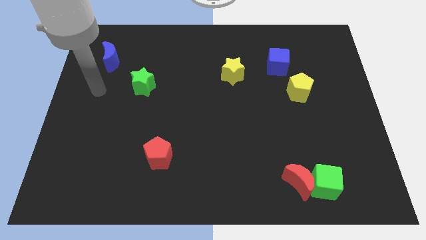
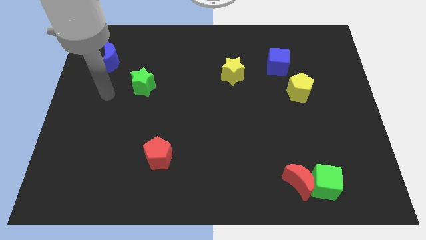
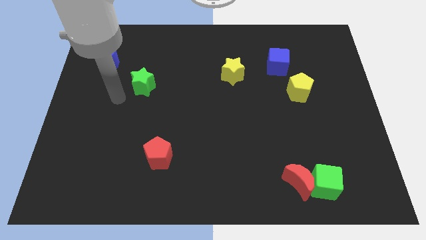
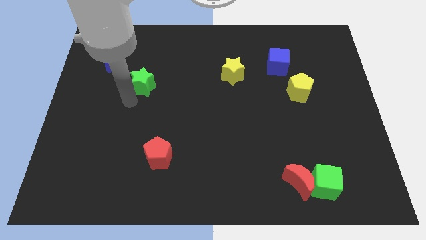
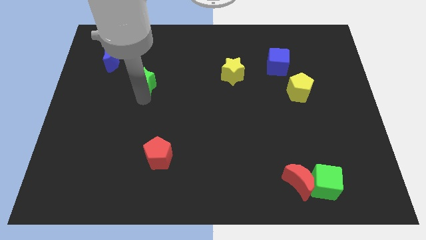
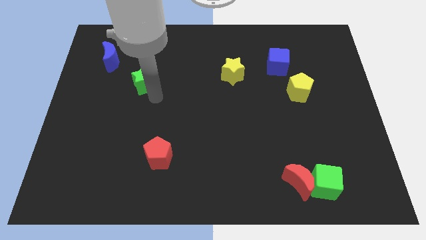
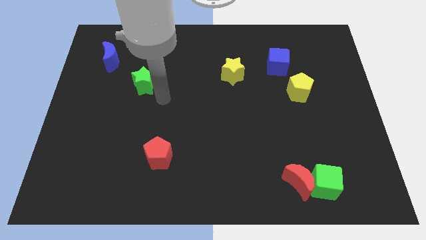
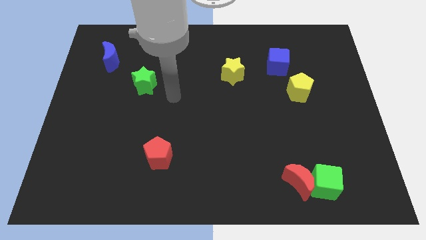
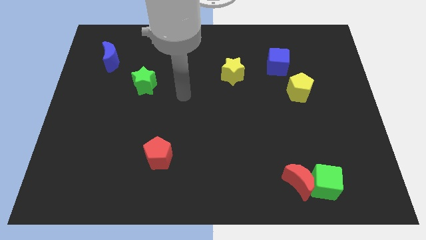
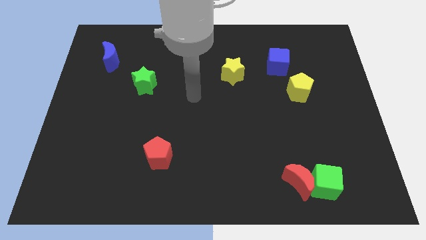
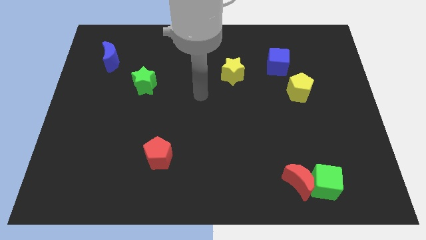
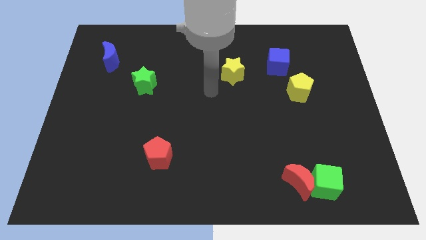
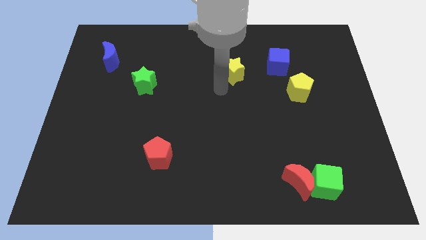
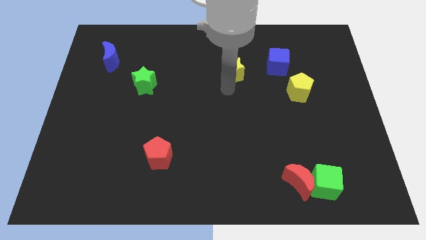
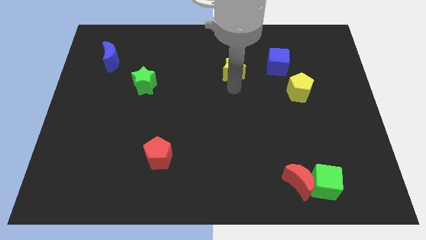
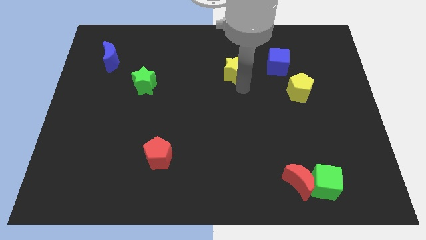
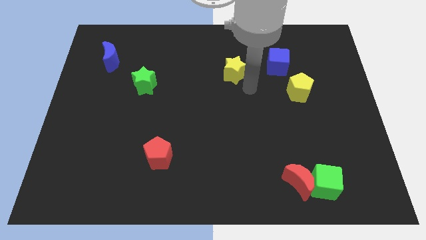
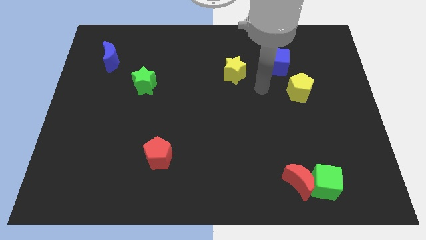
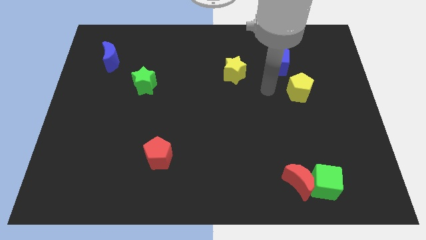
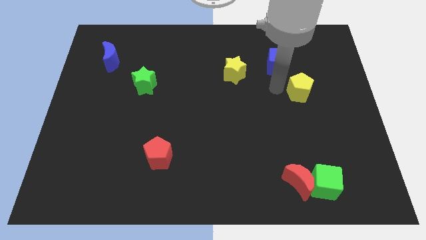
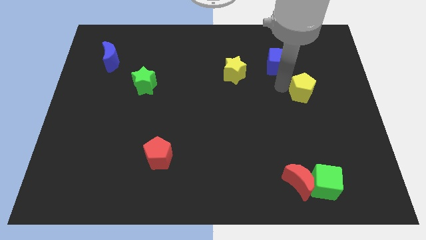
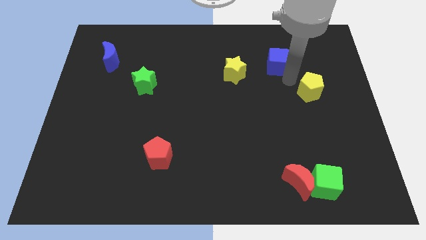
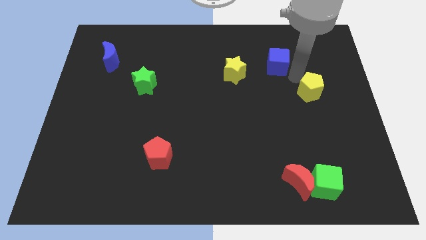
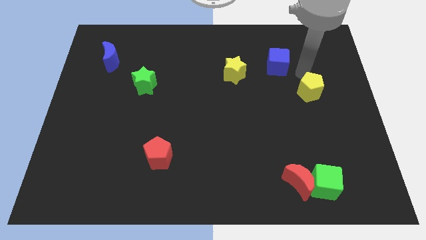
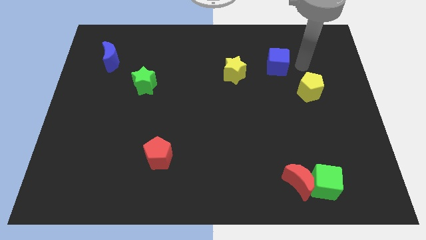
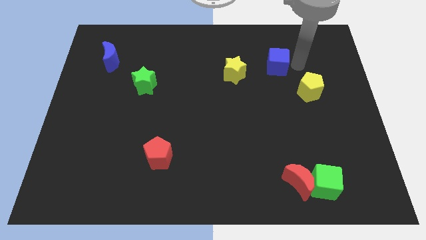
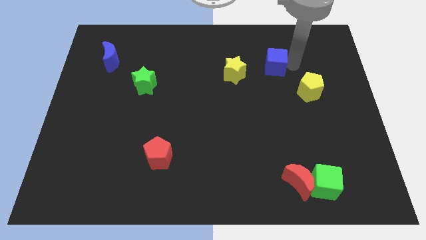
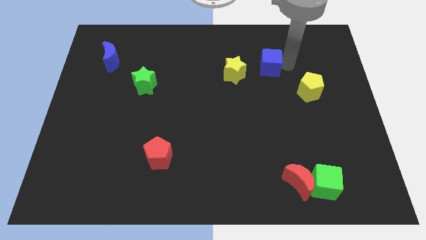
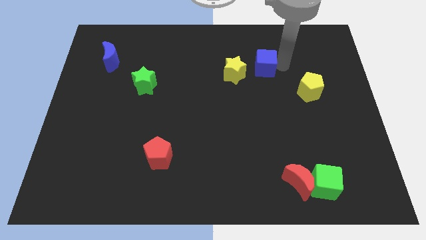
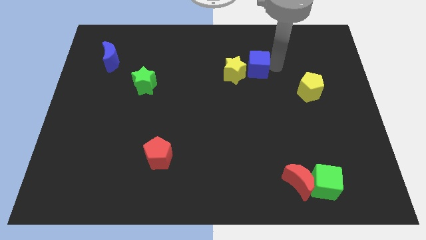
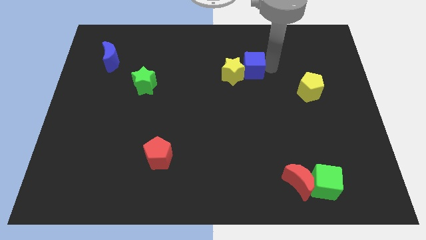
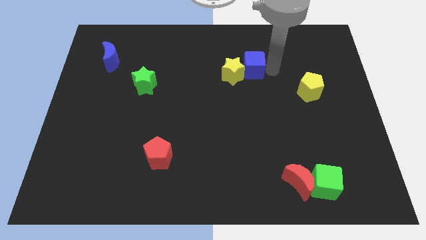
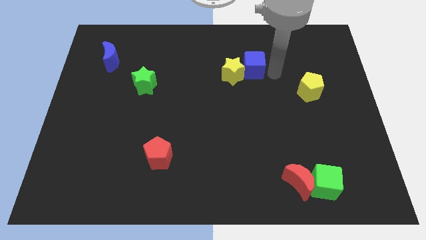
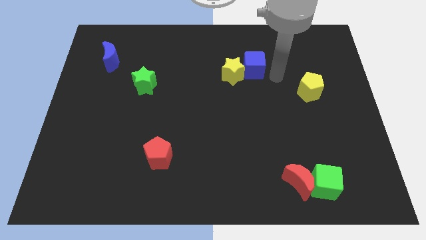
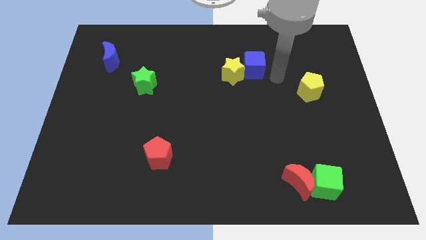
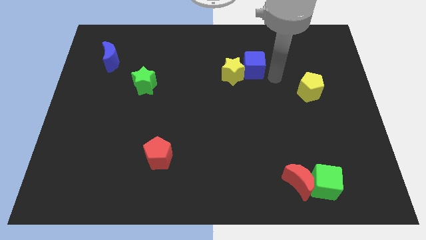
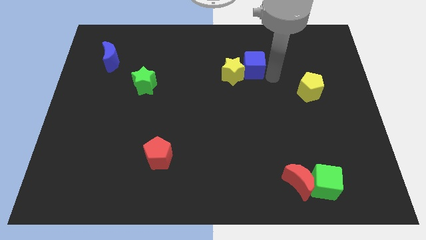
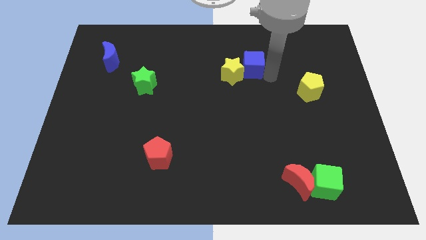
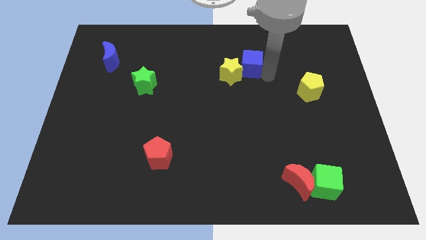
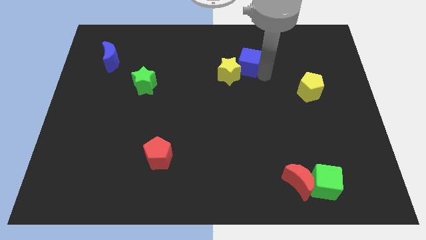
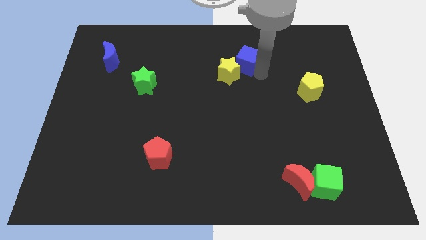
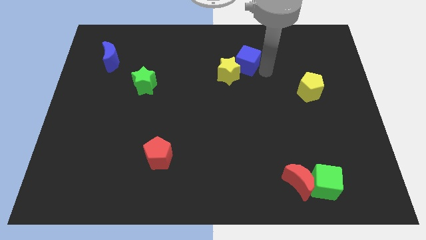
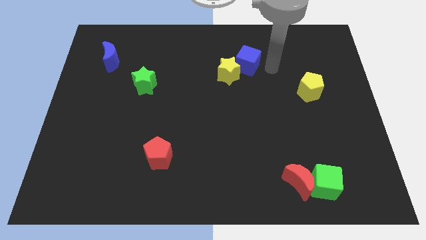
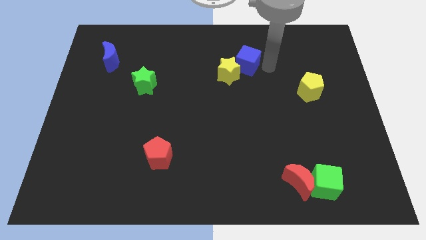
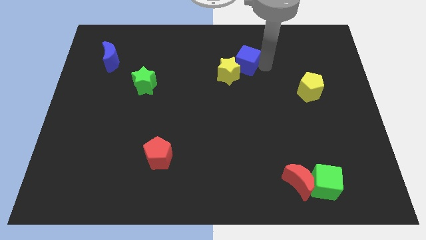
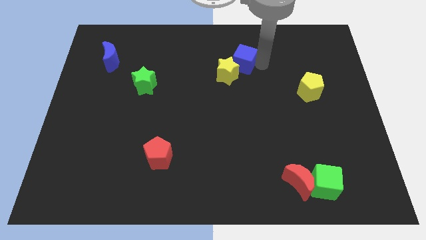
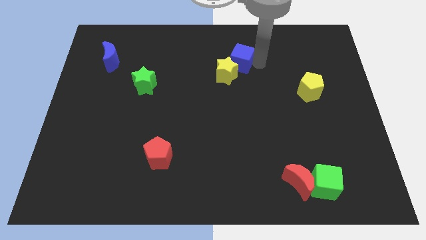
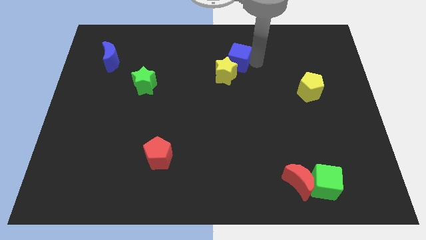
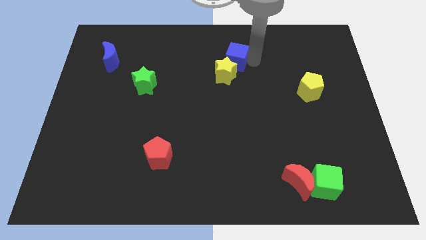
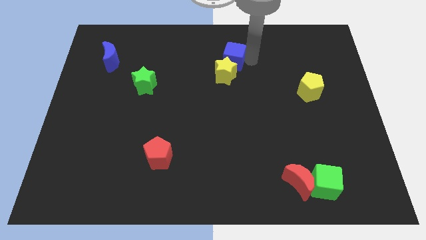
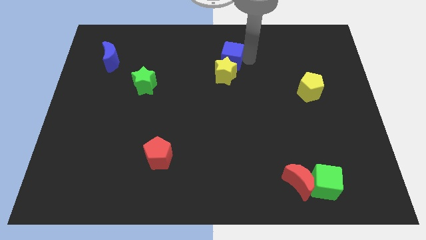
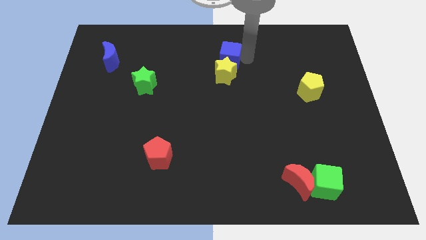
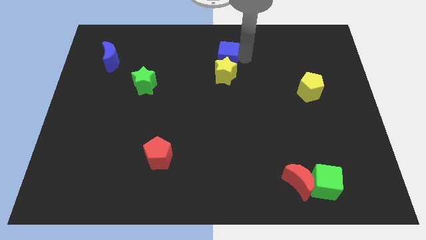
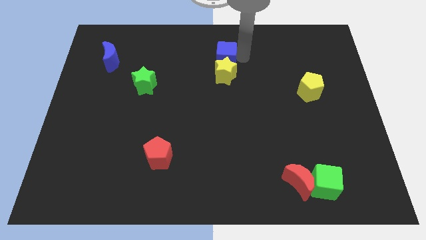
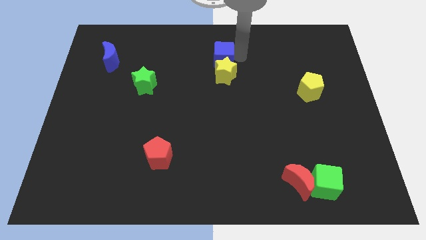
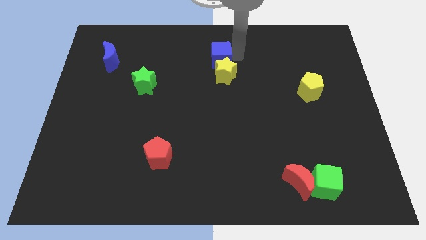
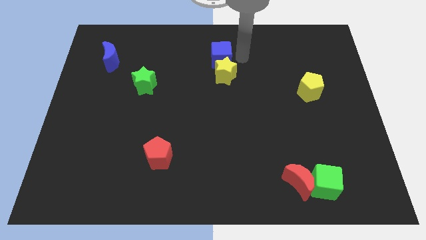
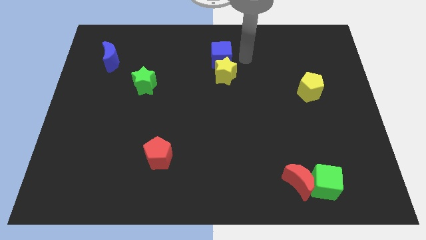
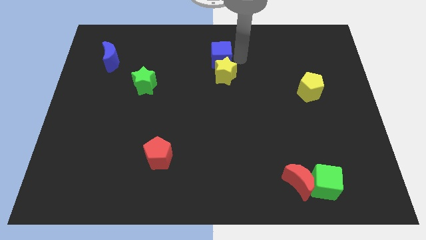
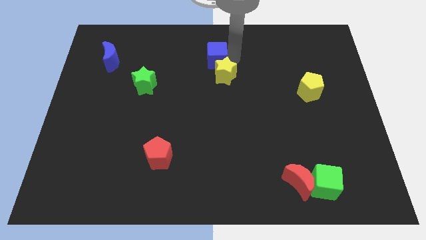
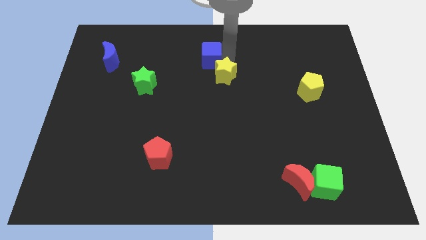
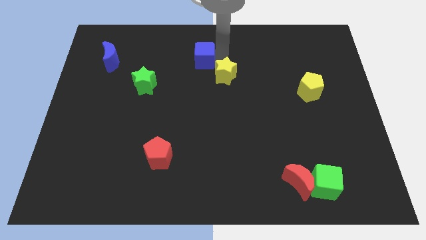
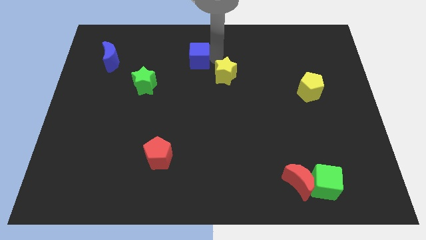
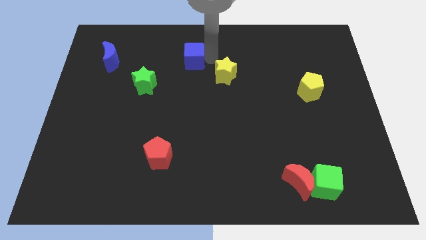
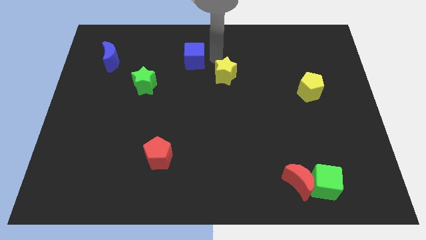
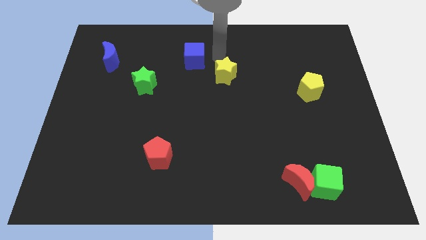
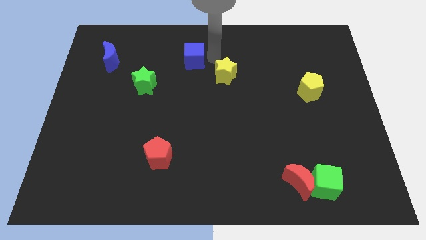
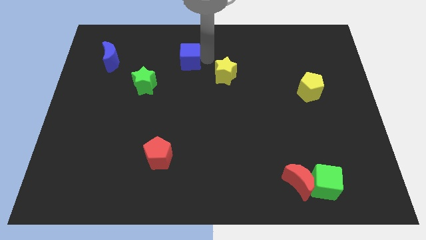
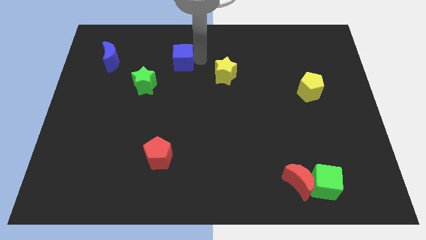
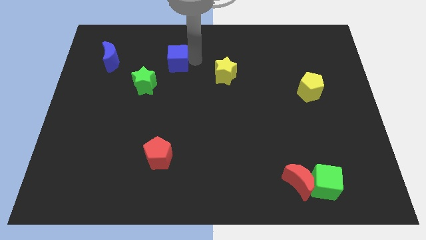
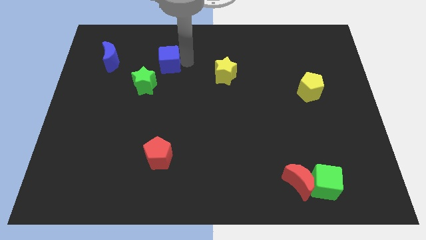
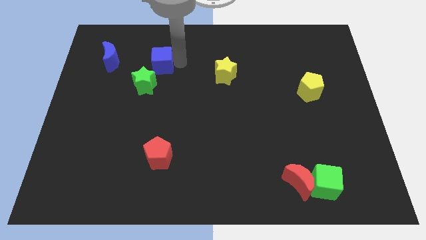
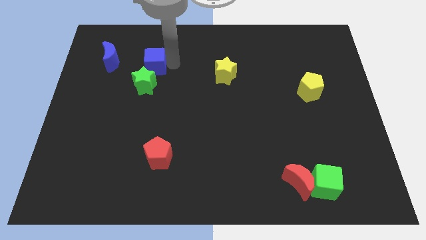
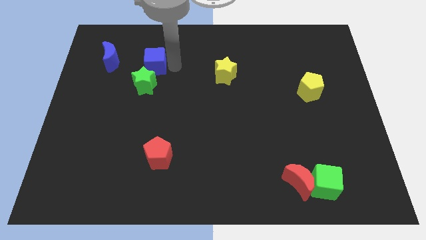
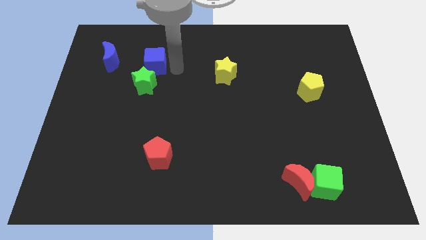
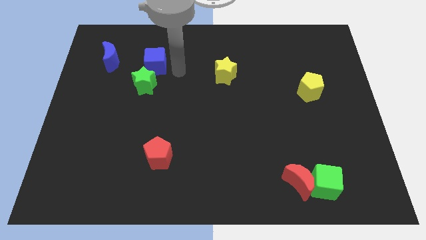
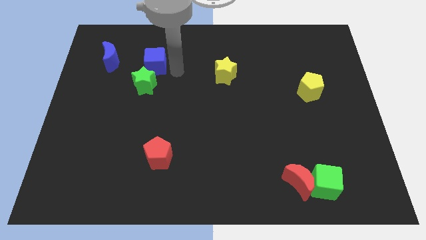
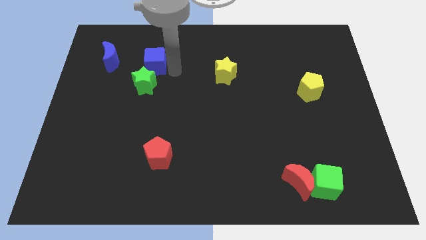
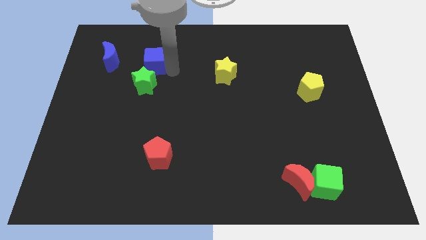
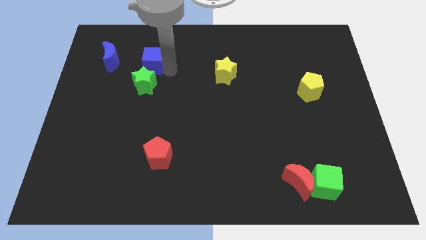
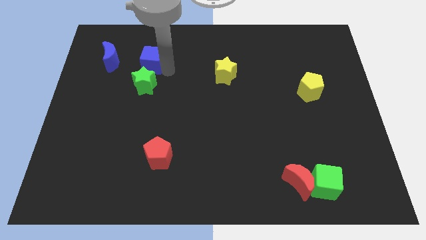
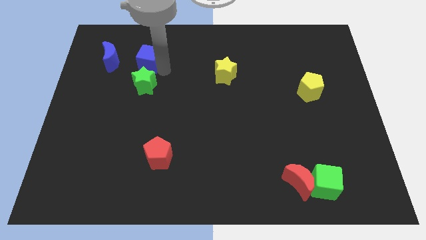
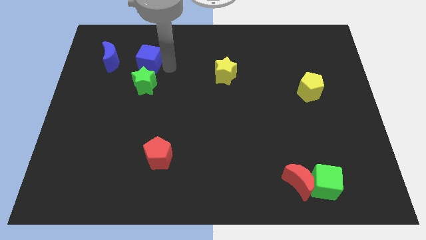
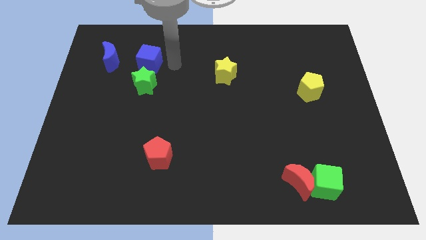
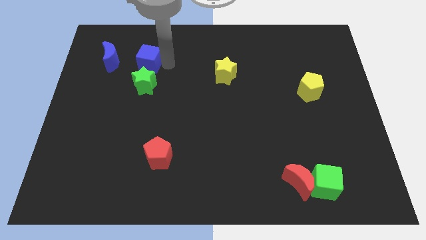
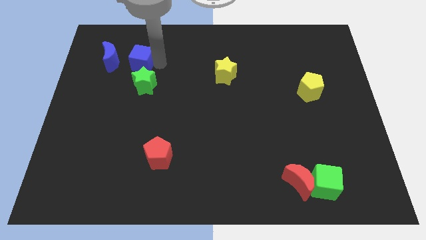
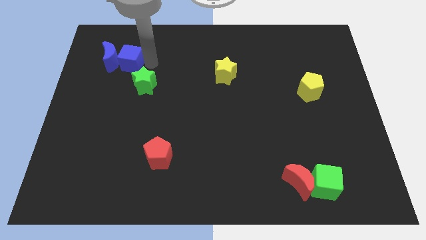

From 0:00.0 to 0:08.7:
slide the blue cube next to the blue moon
